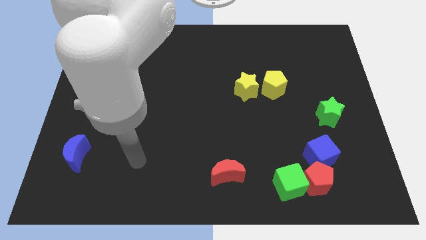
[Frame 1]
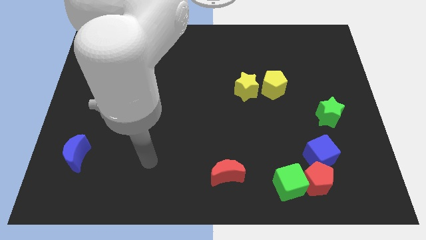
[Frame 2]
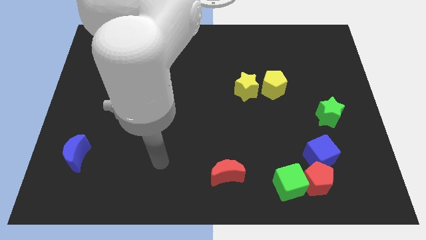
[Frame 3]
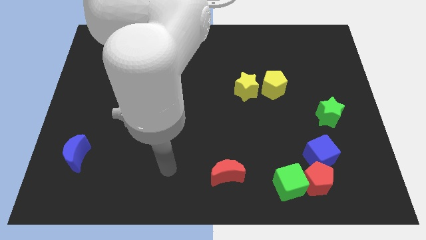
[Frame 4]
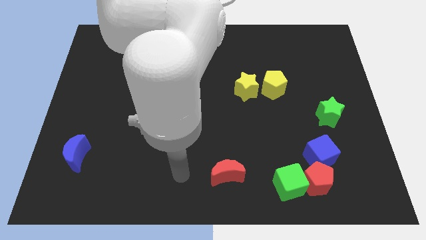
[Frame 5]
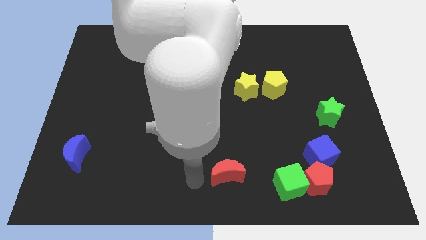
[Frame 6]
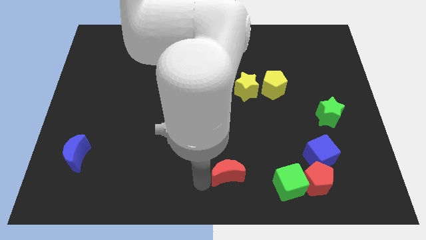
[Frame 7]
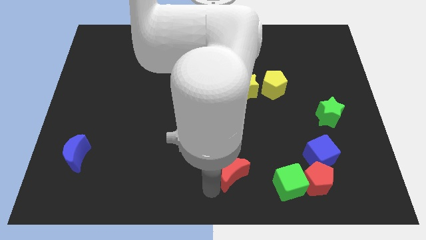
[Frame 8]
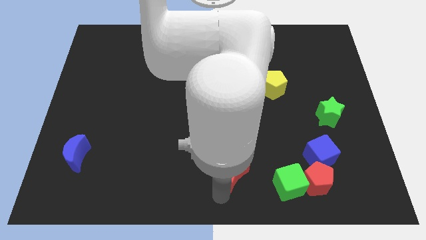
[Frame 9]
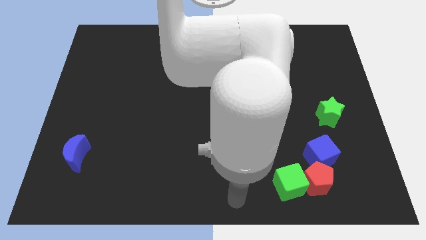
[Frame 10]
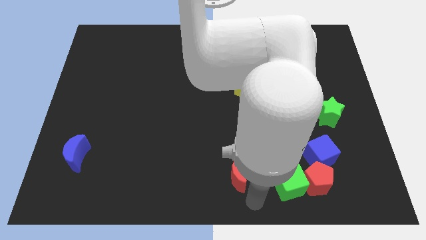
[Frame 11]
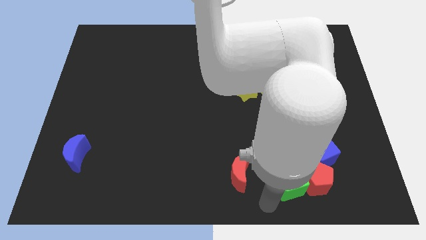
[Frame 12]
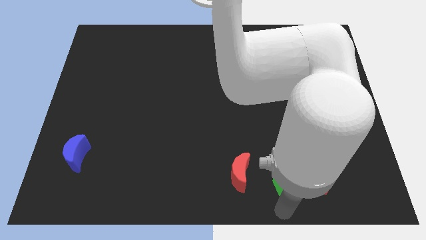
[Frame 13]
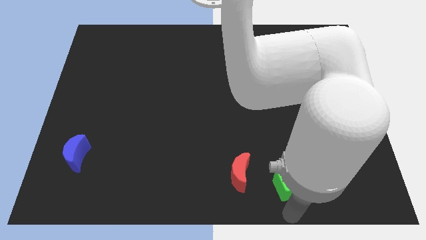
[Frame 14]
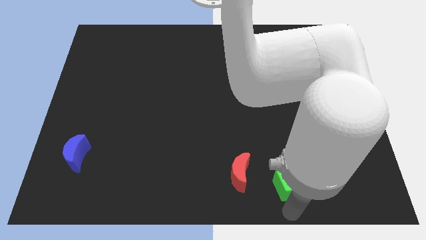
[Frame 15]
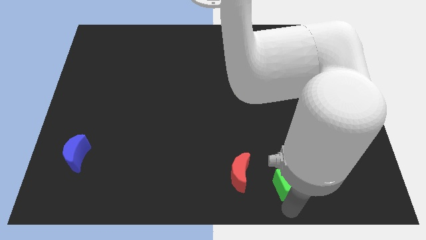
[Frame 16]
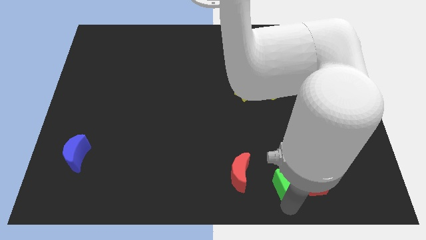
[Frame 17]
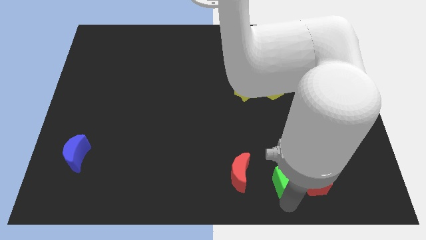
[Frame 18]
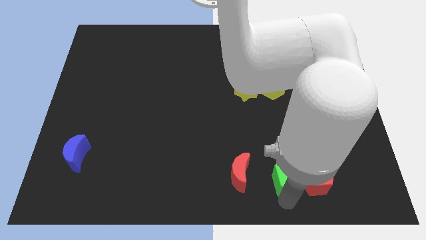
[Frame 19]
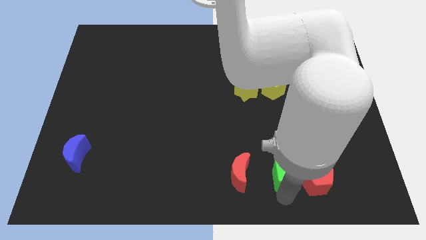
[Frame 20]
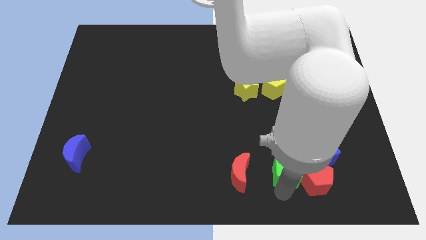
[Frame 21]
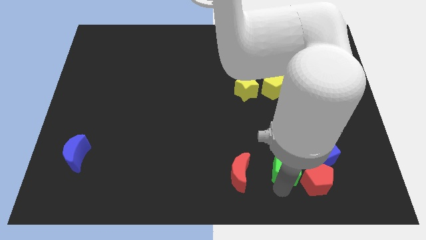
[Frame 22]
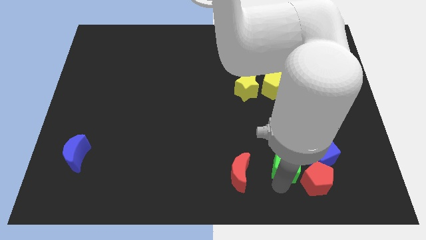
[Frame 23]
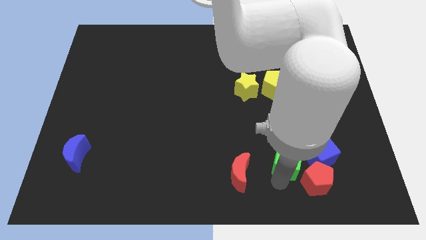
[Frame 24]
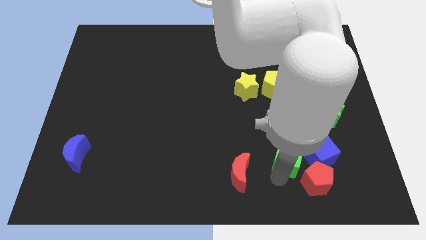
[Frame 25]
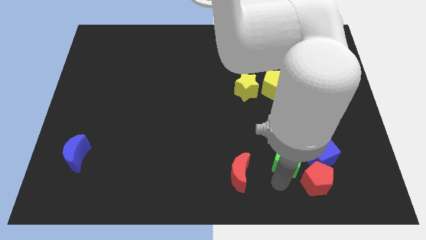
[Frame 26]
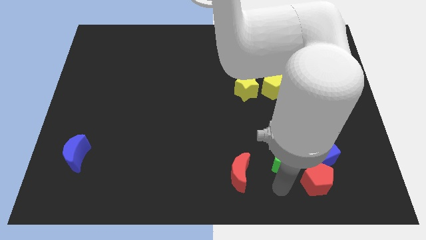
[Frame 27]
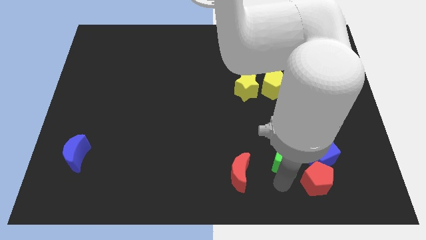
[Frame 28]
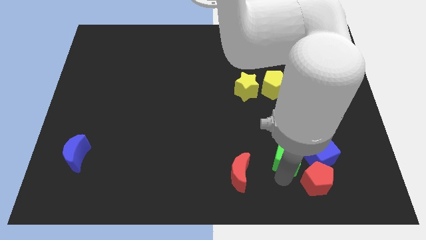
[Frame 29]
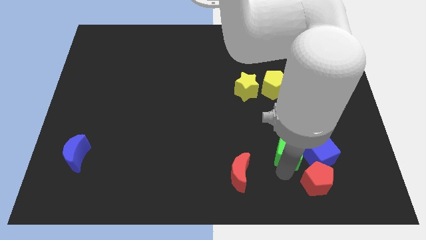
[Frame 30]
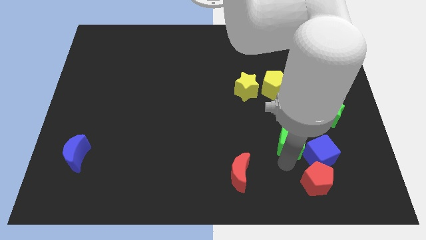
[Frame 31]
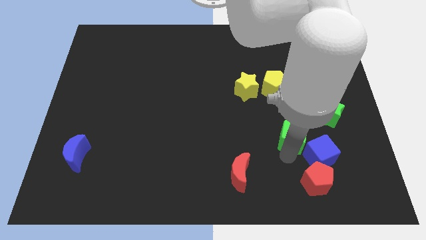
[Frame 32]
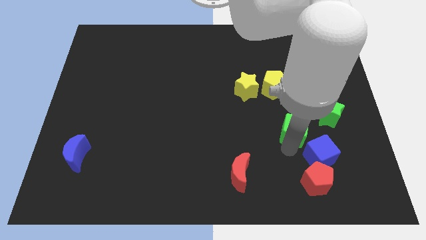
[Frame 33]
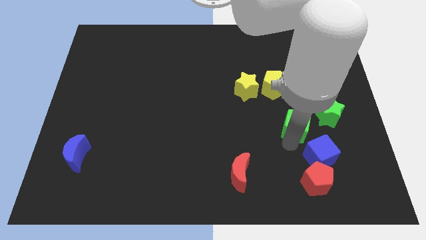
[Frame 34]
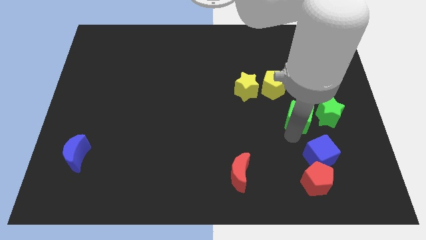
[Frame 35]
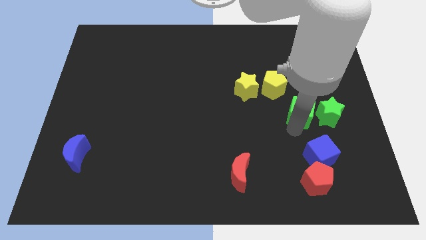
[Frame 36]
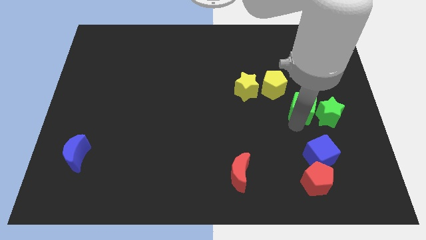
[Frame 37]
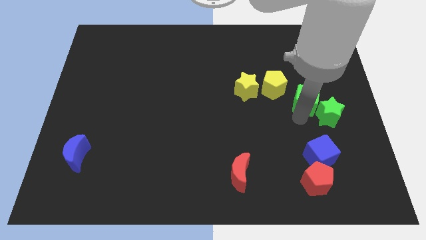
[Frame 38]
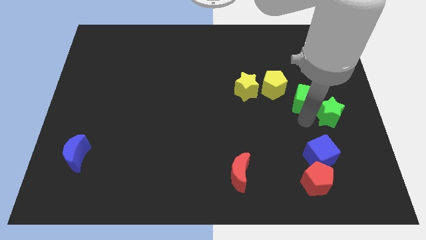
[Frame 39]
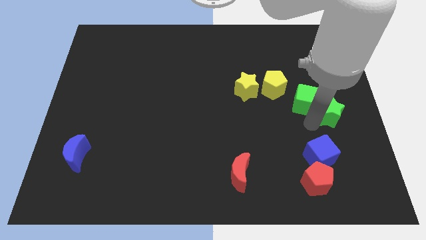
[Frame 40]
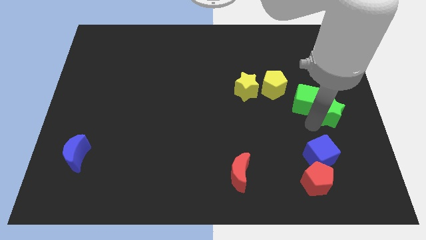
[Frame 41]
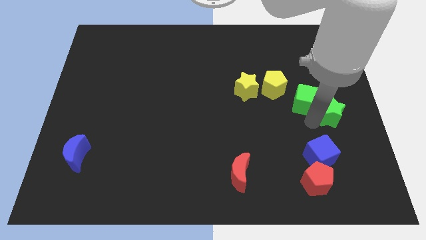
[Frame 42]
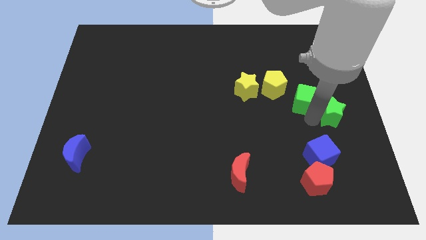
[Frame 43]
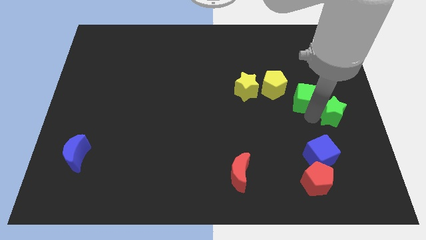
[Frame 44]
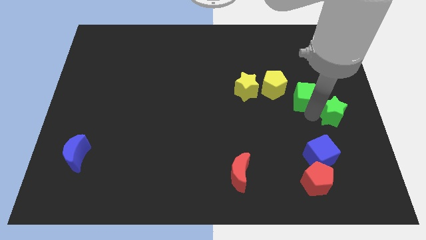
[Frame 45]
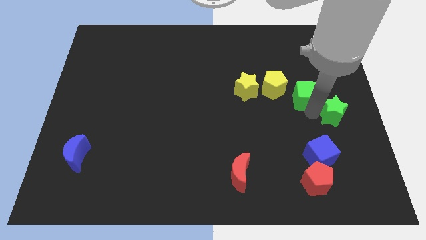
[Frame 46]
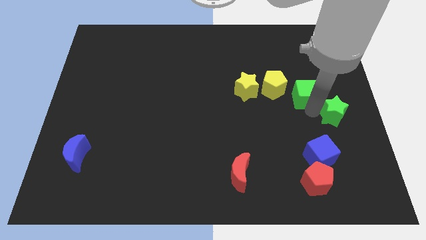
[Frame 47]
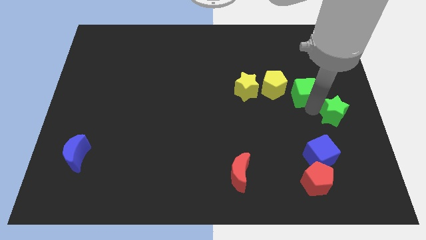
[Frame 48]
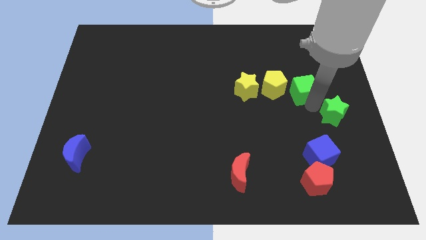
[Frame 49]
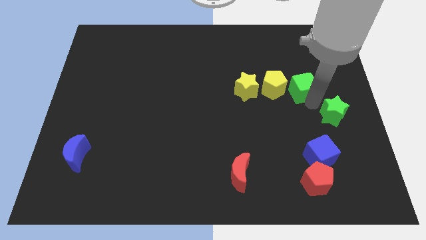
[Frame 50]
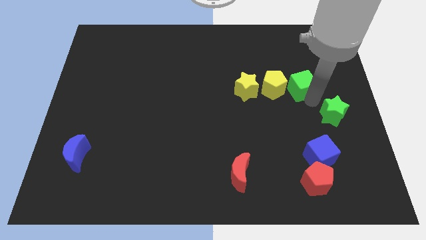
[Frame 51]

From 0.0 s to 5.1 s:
move the green cube diagonally up and to the right of the yellow pentagon
